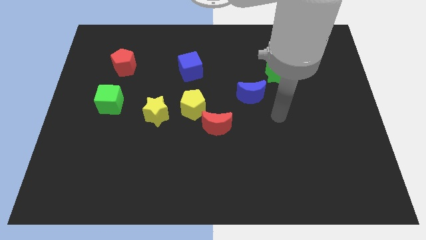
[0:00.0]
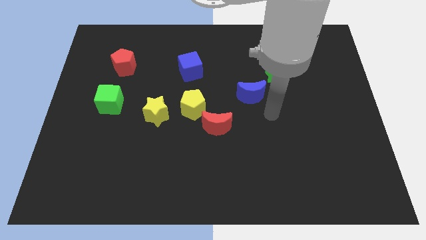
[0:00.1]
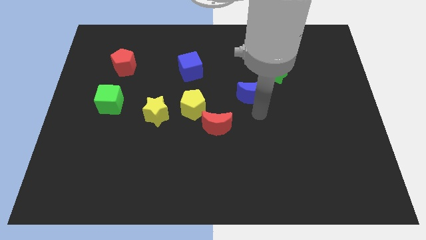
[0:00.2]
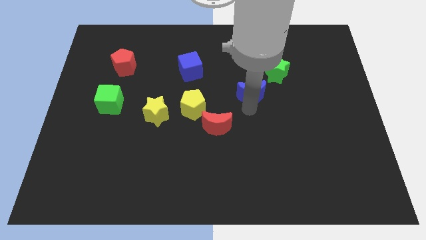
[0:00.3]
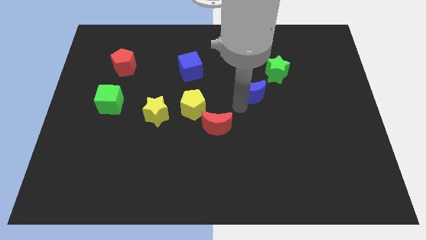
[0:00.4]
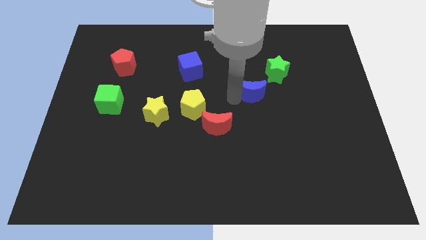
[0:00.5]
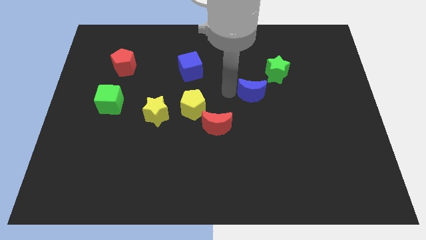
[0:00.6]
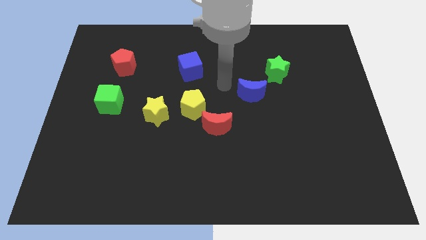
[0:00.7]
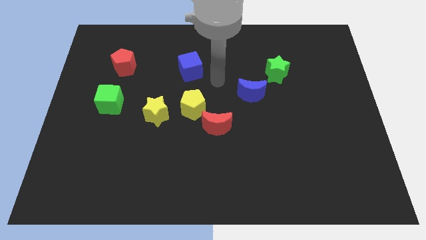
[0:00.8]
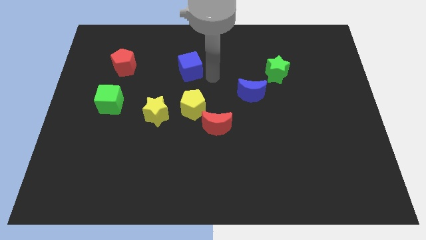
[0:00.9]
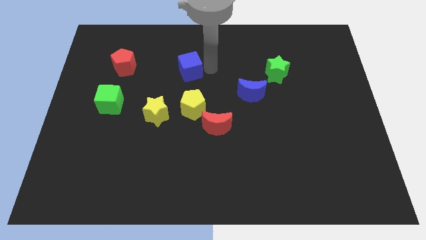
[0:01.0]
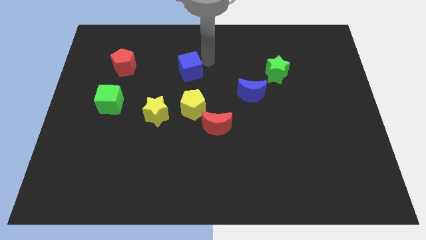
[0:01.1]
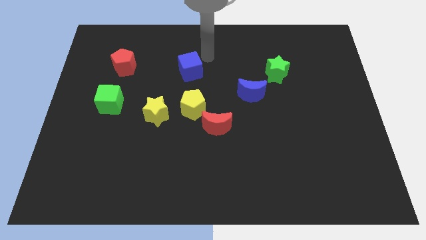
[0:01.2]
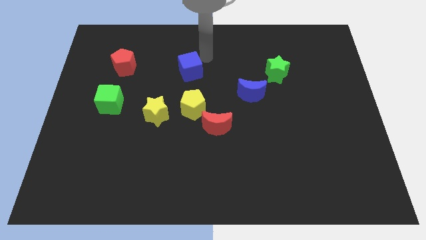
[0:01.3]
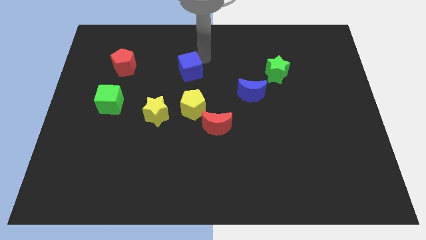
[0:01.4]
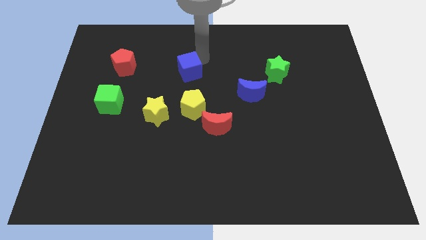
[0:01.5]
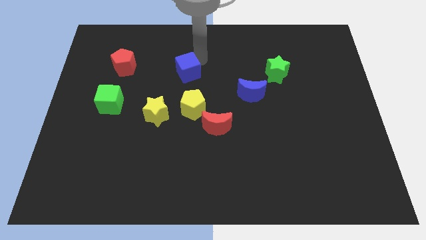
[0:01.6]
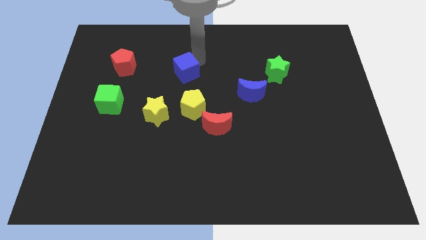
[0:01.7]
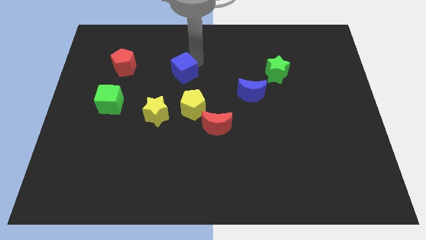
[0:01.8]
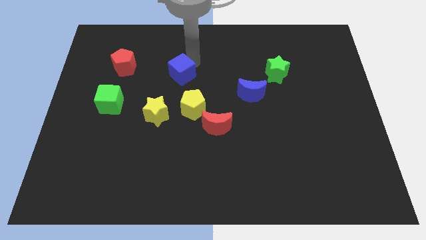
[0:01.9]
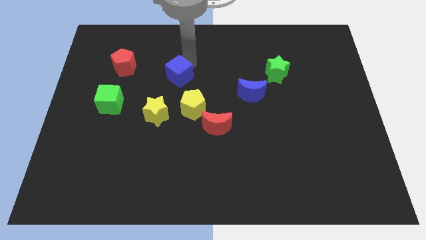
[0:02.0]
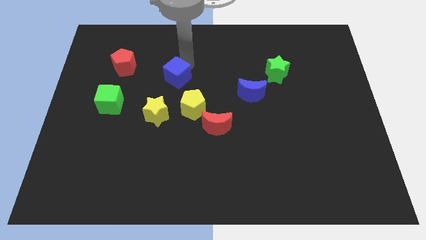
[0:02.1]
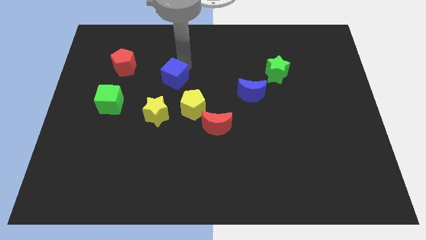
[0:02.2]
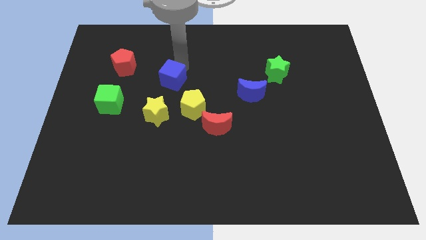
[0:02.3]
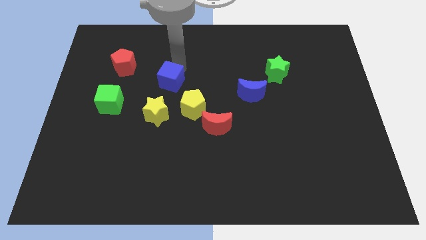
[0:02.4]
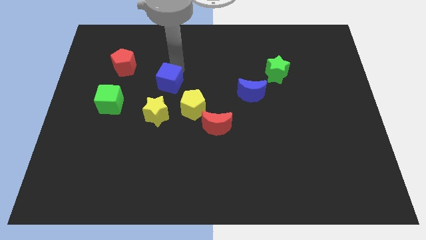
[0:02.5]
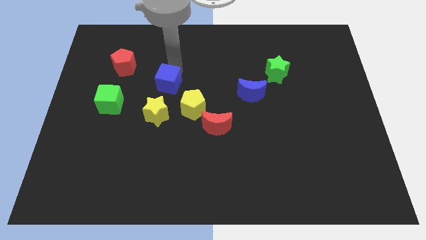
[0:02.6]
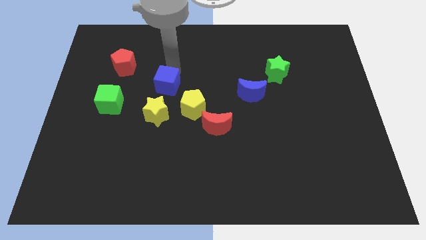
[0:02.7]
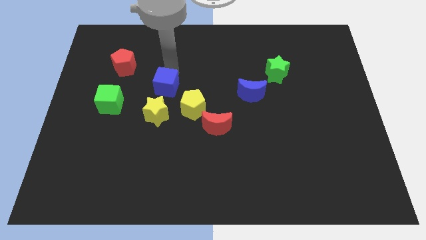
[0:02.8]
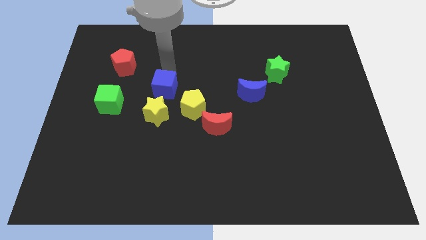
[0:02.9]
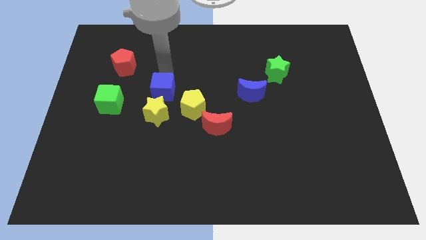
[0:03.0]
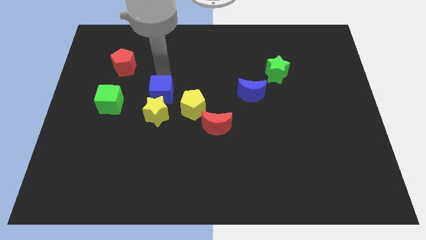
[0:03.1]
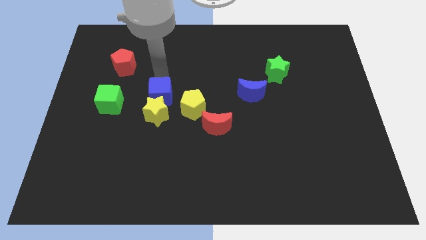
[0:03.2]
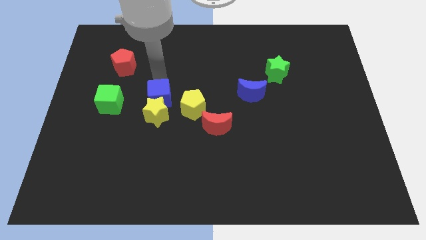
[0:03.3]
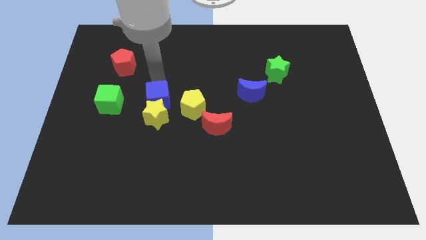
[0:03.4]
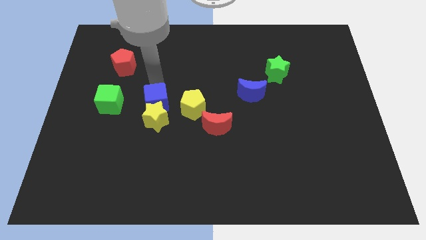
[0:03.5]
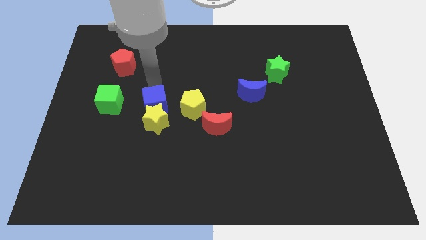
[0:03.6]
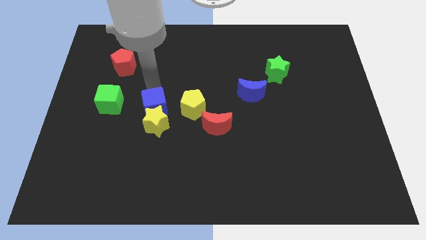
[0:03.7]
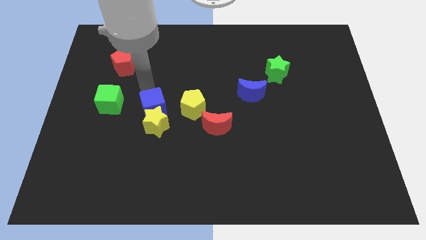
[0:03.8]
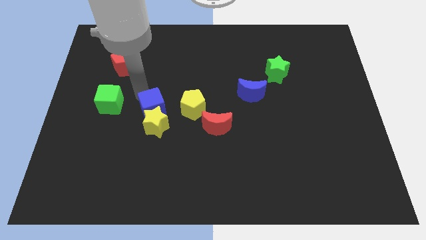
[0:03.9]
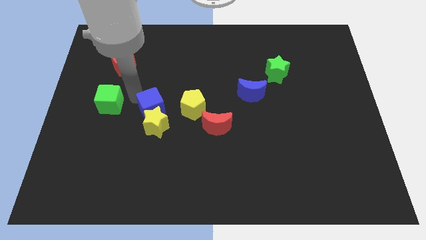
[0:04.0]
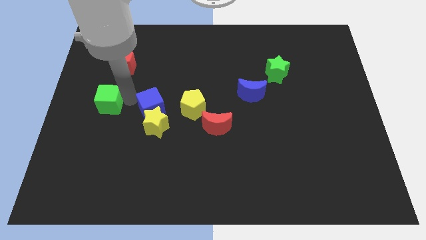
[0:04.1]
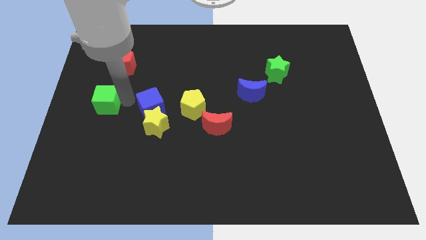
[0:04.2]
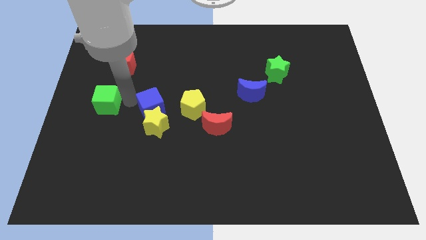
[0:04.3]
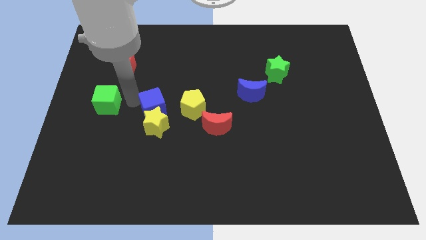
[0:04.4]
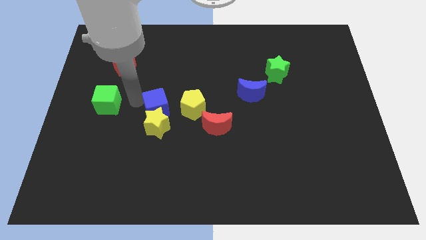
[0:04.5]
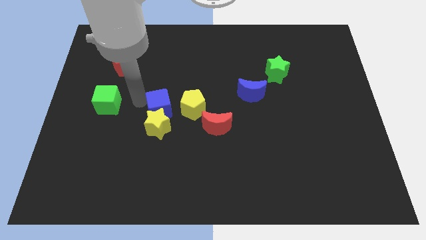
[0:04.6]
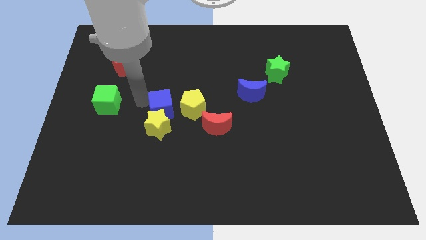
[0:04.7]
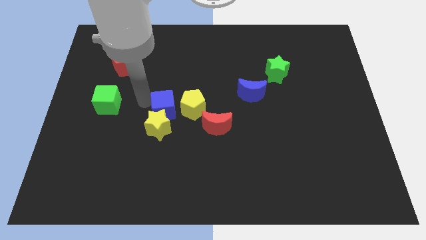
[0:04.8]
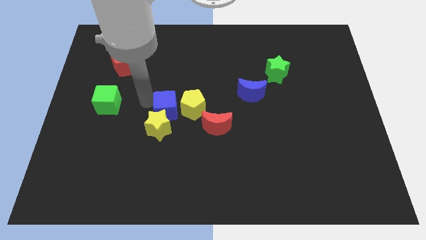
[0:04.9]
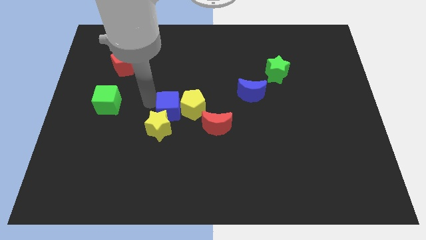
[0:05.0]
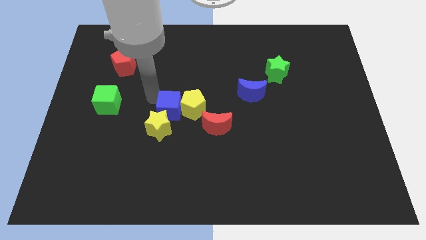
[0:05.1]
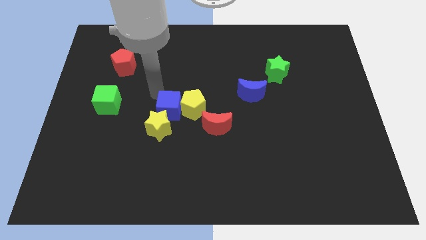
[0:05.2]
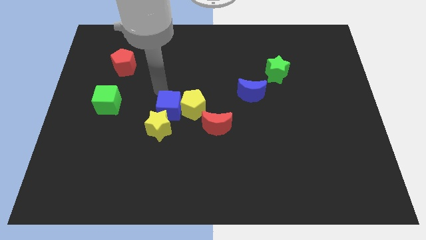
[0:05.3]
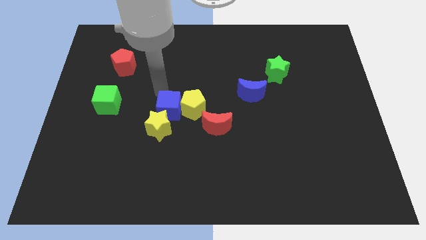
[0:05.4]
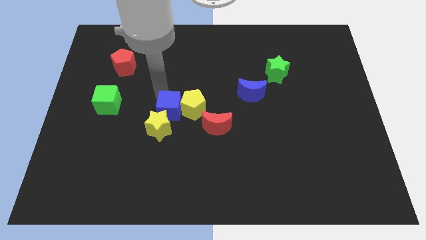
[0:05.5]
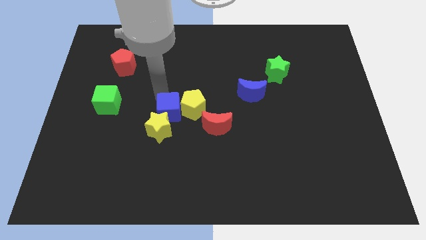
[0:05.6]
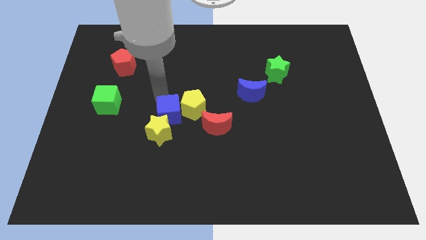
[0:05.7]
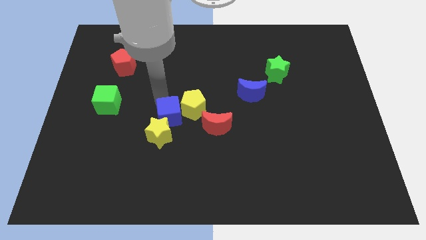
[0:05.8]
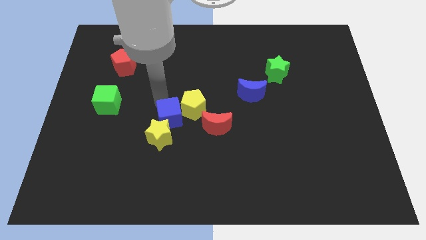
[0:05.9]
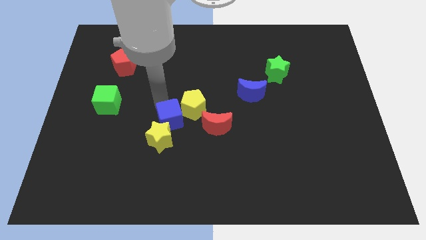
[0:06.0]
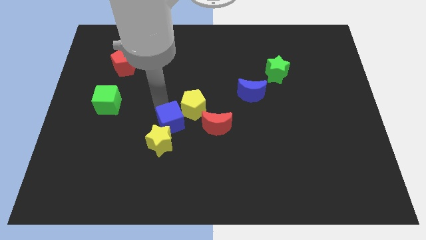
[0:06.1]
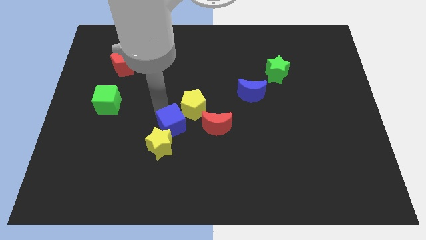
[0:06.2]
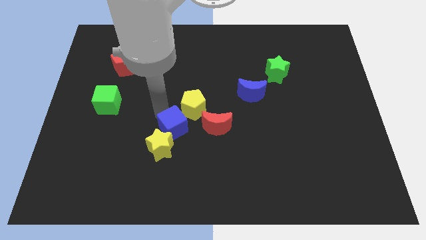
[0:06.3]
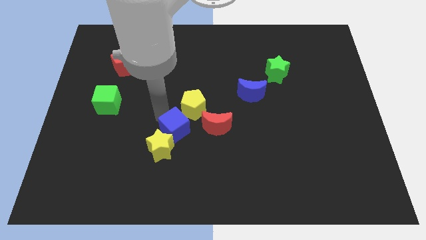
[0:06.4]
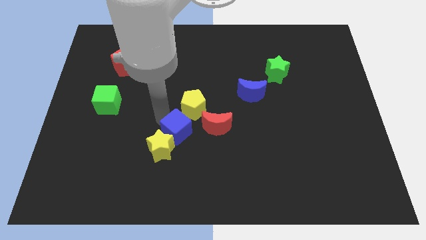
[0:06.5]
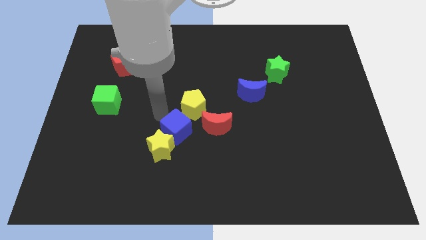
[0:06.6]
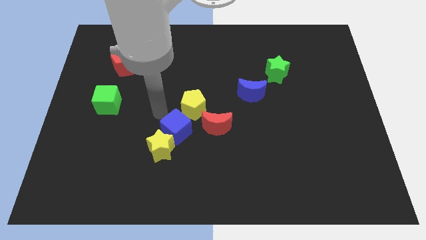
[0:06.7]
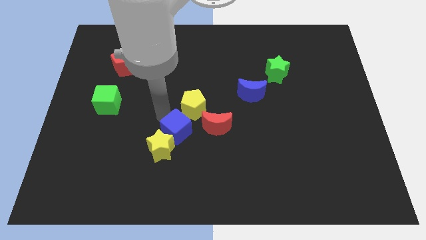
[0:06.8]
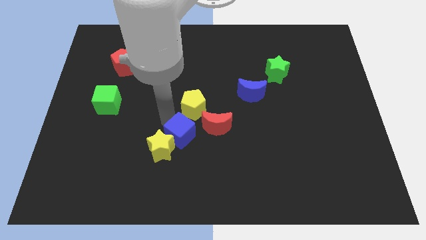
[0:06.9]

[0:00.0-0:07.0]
push the blue cube diagonally down and to the left of the red moon
